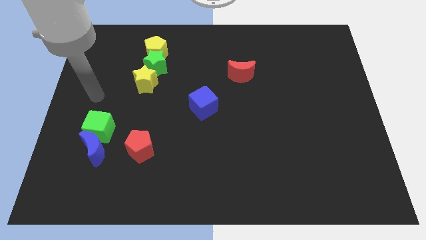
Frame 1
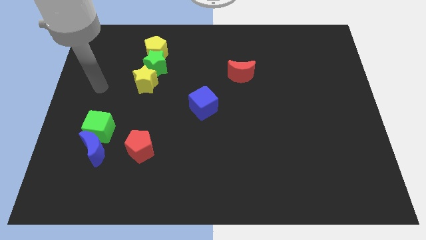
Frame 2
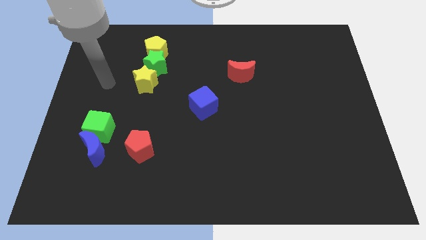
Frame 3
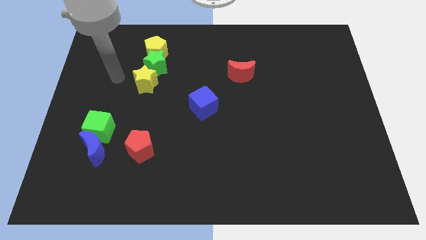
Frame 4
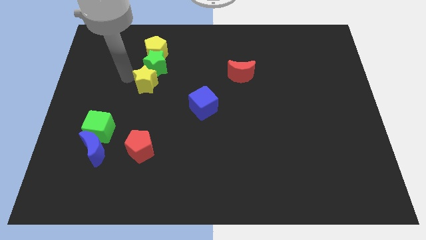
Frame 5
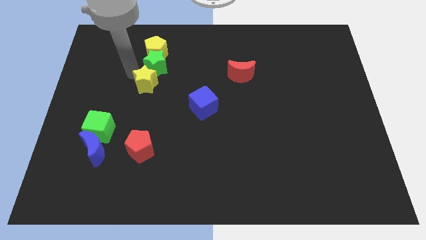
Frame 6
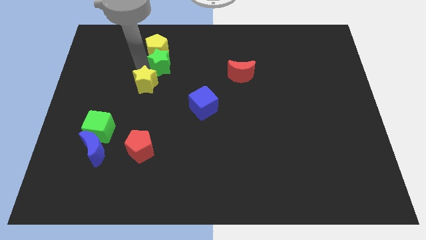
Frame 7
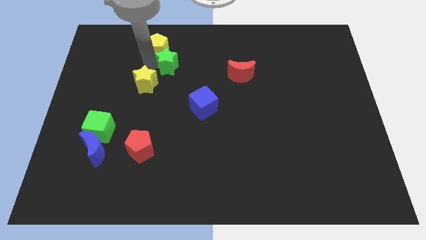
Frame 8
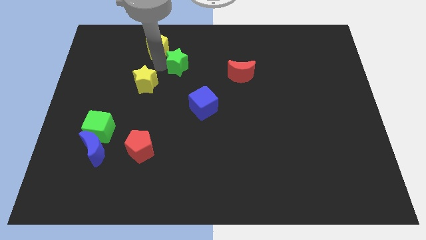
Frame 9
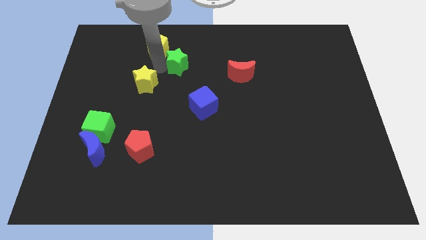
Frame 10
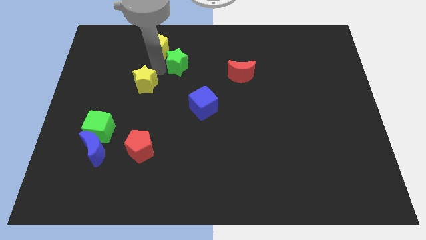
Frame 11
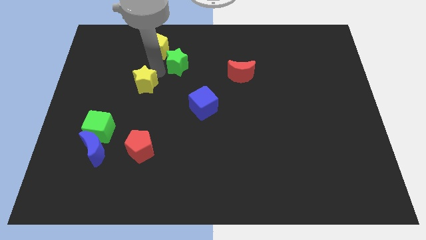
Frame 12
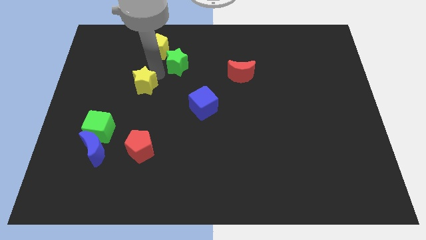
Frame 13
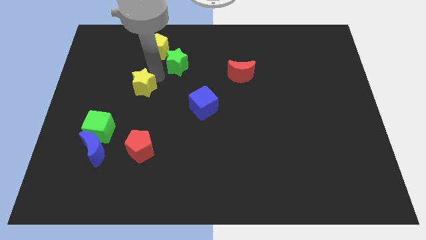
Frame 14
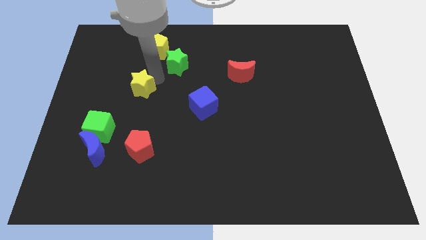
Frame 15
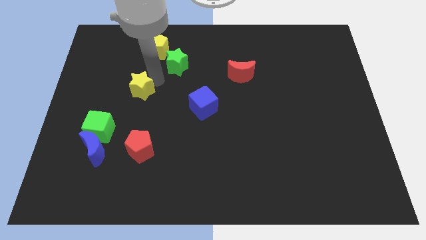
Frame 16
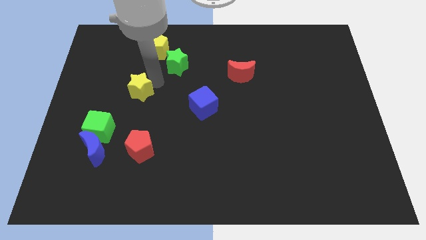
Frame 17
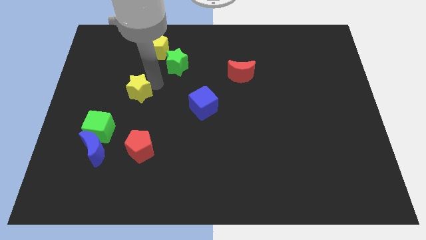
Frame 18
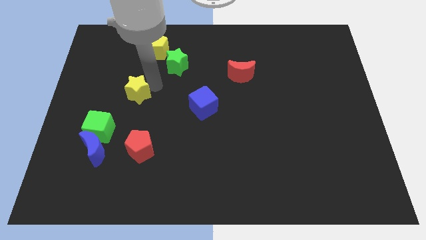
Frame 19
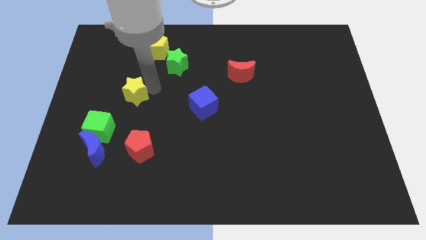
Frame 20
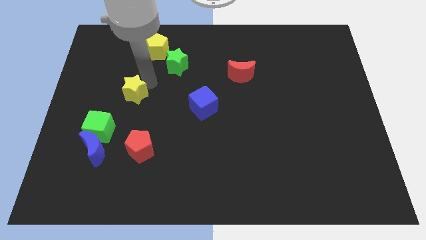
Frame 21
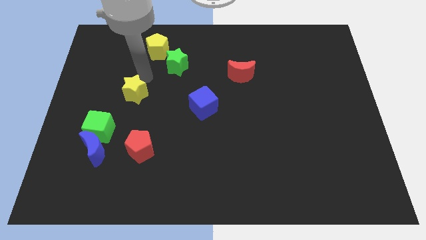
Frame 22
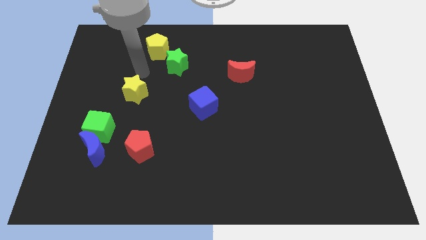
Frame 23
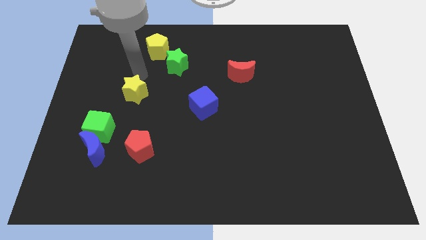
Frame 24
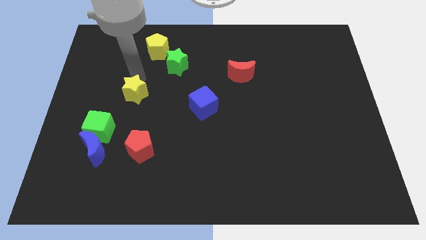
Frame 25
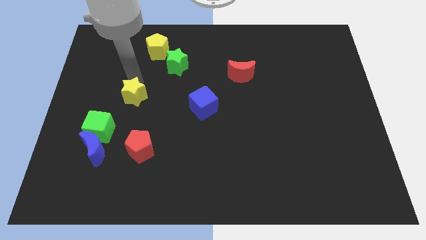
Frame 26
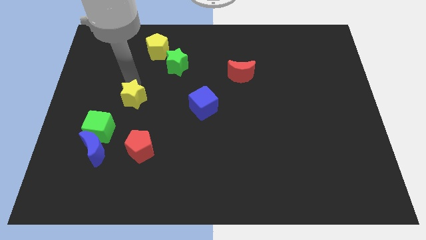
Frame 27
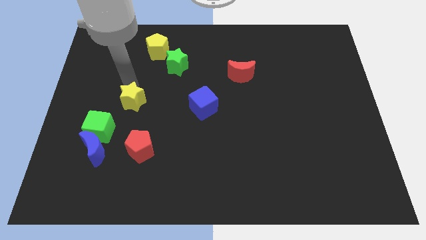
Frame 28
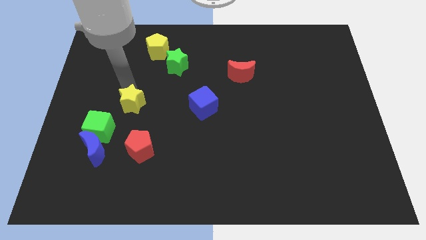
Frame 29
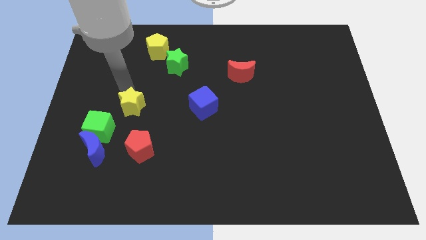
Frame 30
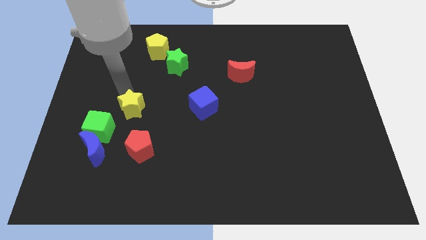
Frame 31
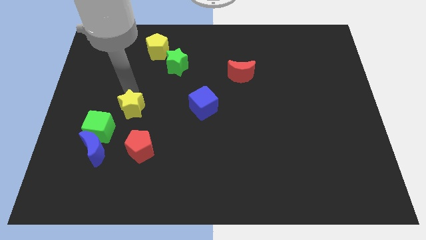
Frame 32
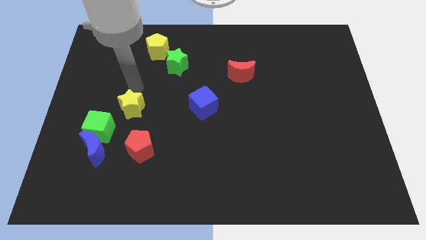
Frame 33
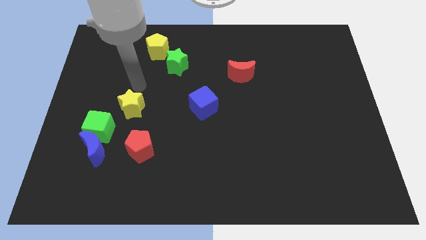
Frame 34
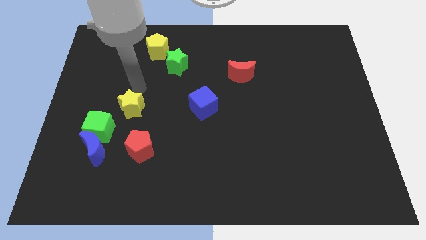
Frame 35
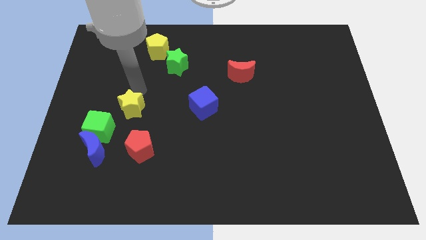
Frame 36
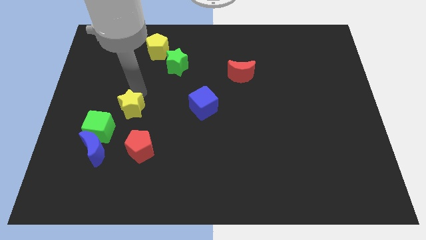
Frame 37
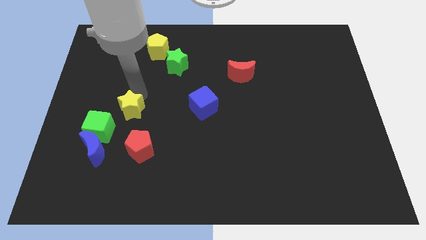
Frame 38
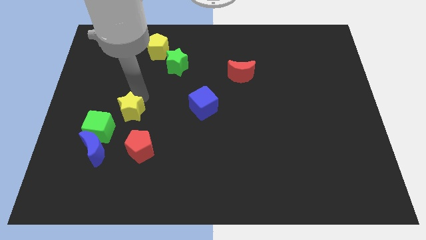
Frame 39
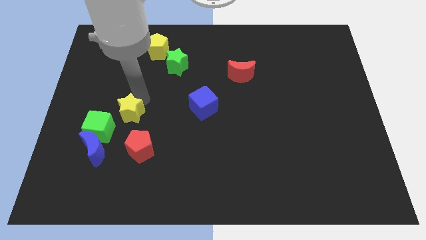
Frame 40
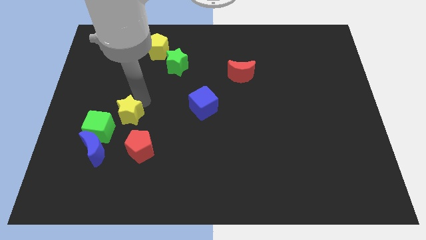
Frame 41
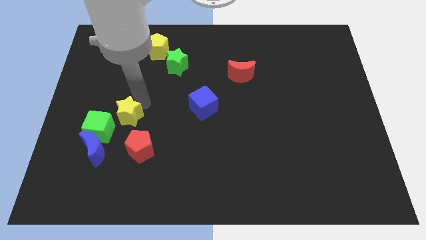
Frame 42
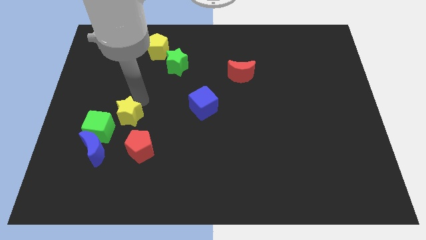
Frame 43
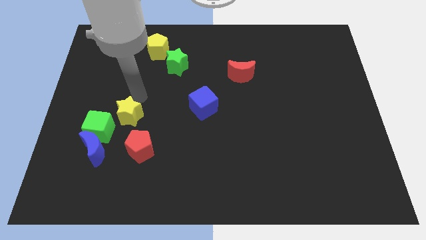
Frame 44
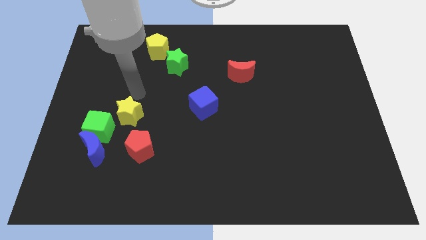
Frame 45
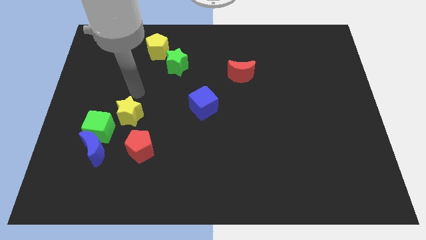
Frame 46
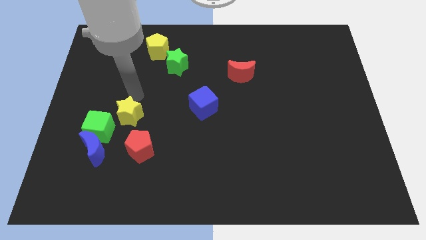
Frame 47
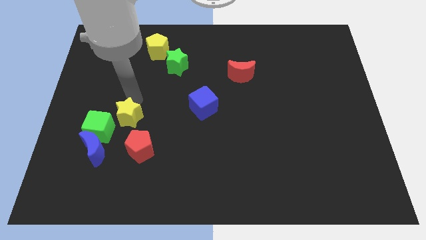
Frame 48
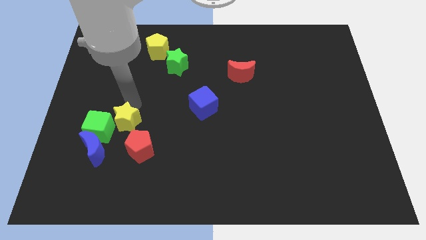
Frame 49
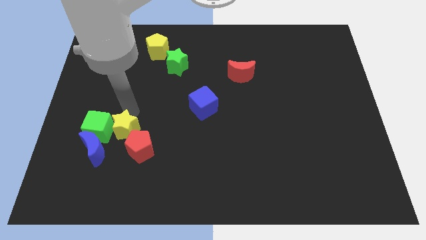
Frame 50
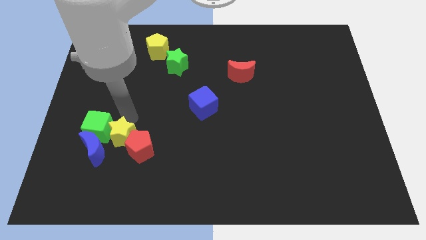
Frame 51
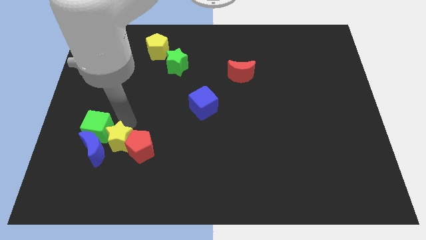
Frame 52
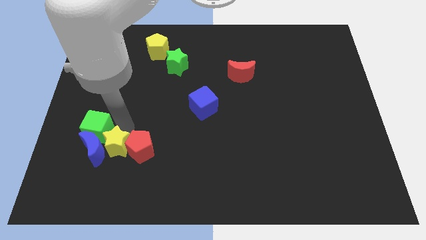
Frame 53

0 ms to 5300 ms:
push the yellow star to the bottom right of the blue moon

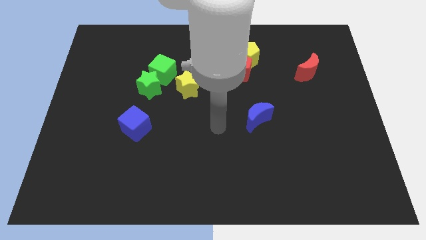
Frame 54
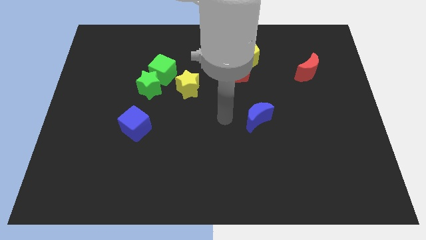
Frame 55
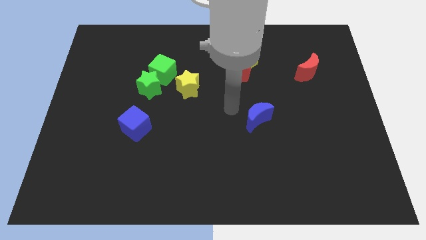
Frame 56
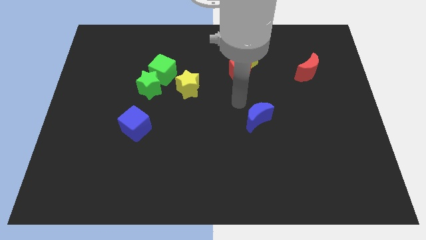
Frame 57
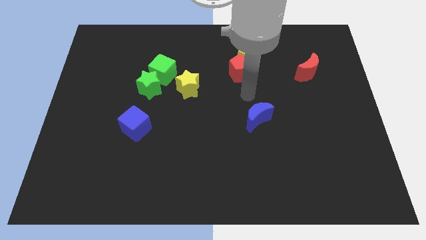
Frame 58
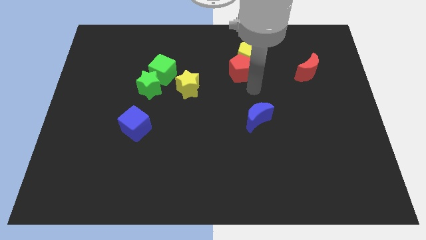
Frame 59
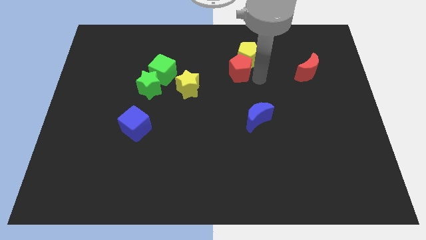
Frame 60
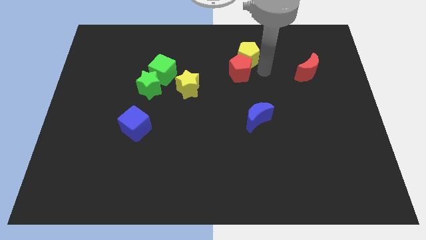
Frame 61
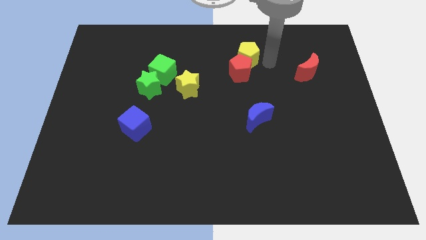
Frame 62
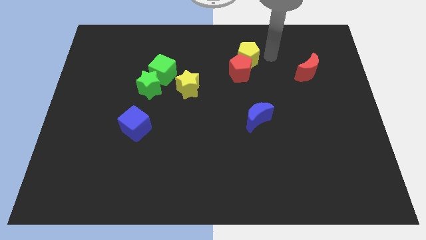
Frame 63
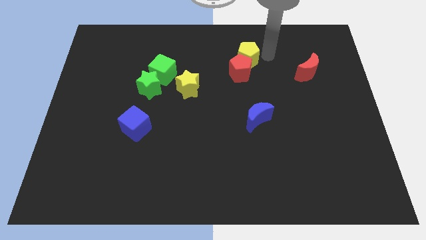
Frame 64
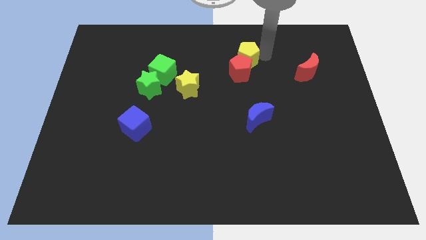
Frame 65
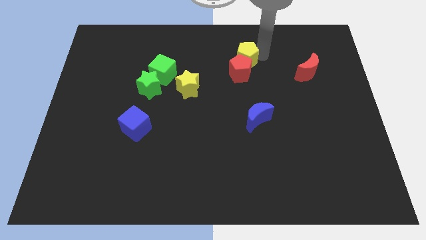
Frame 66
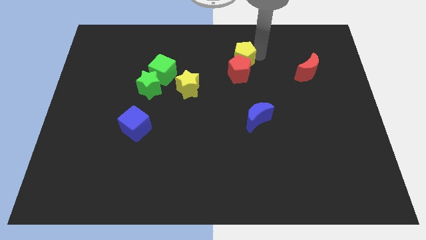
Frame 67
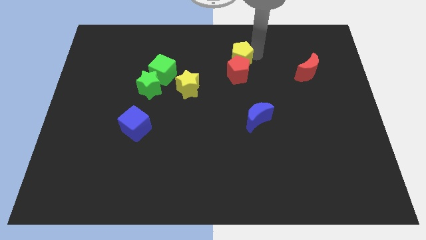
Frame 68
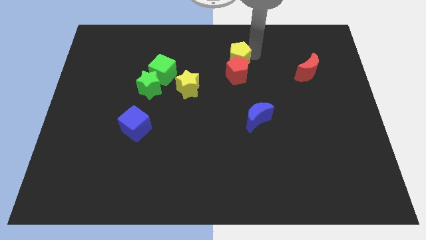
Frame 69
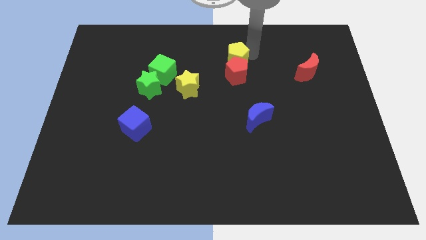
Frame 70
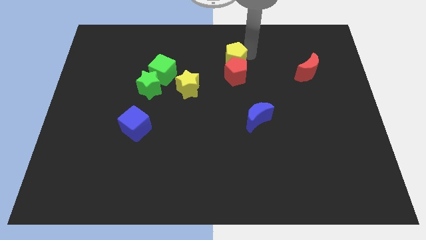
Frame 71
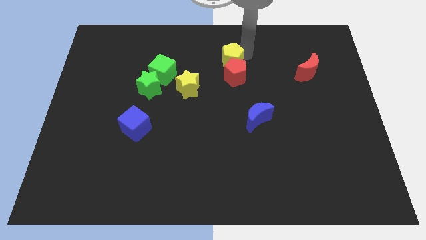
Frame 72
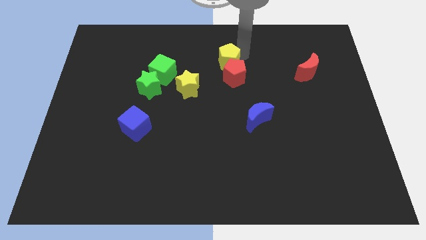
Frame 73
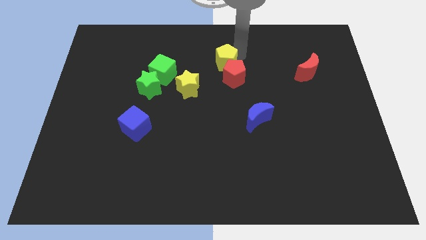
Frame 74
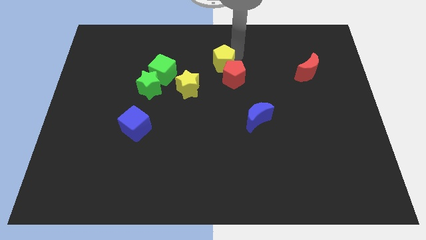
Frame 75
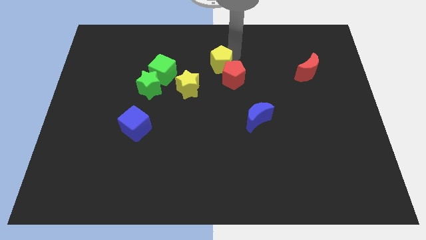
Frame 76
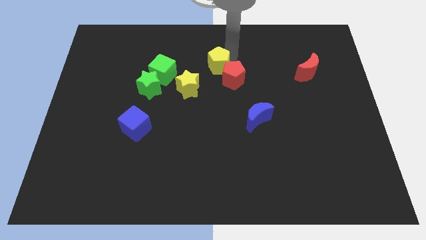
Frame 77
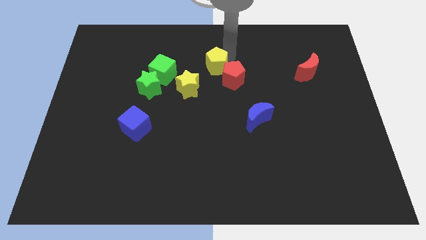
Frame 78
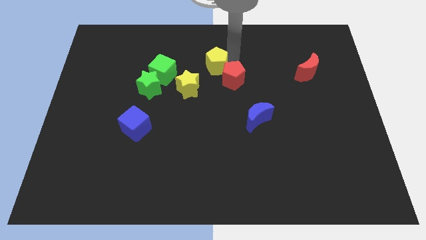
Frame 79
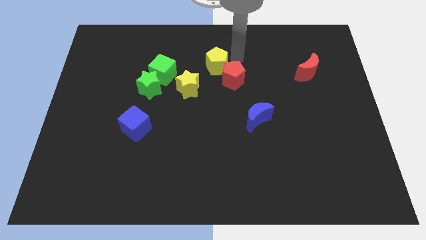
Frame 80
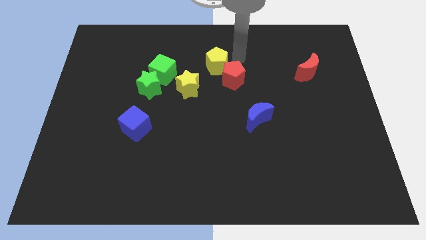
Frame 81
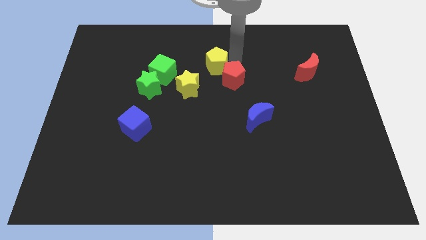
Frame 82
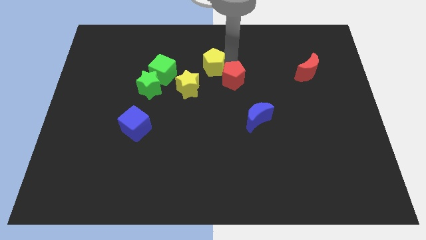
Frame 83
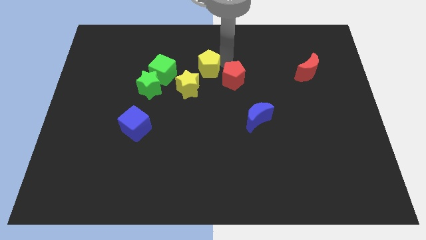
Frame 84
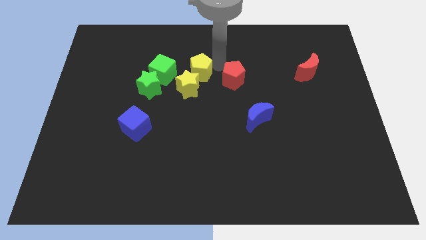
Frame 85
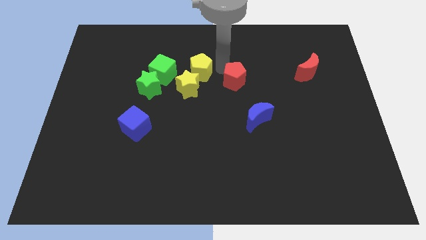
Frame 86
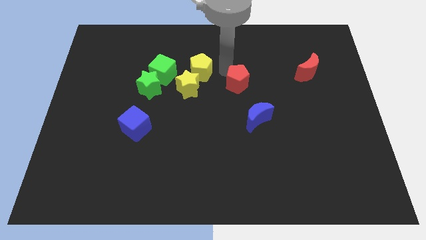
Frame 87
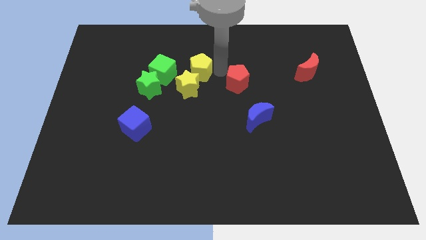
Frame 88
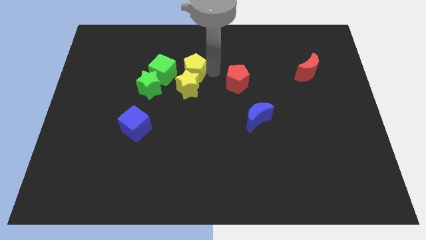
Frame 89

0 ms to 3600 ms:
put the yellow pentagon to the top right of the green star
